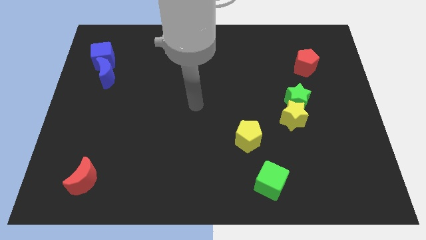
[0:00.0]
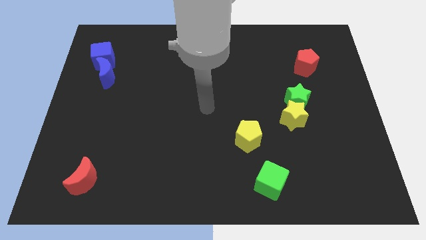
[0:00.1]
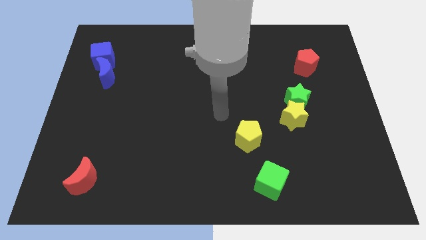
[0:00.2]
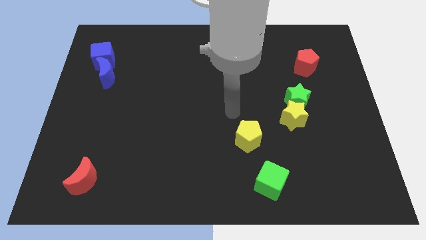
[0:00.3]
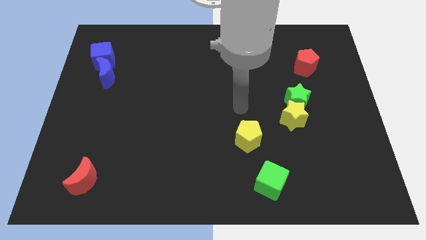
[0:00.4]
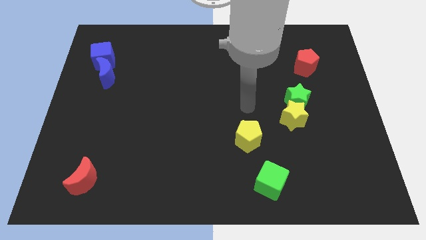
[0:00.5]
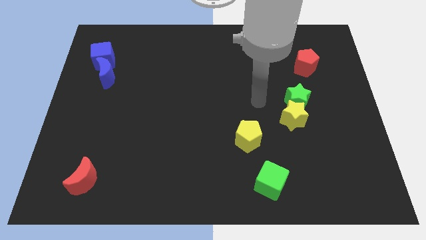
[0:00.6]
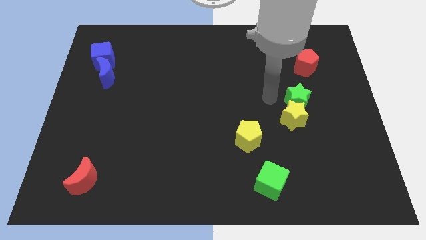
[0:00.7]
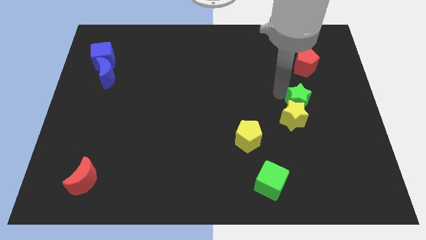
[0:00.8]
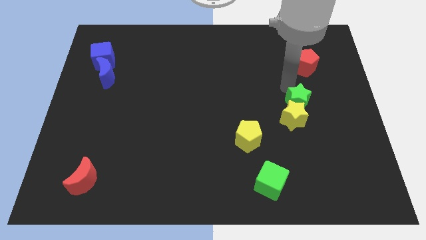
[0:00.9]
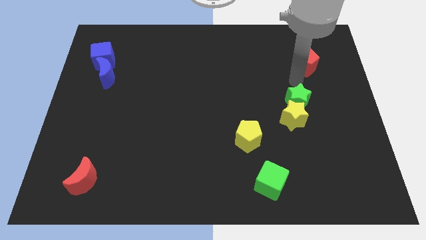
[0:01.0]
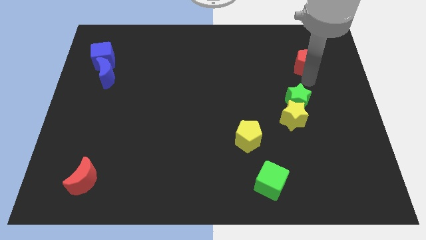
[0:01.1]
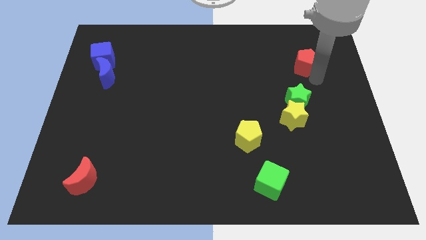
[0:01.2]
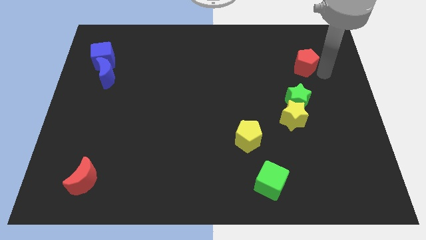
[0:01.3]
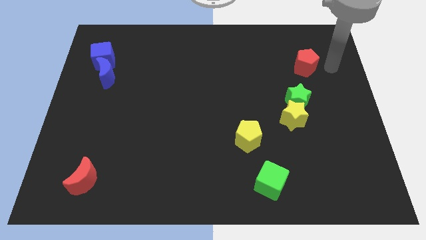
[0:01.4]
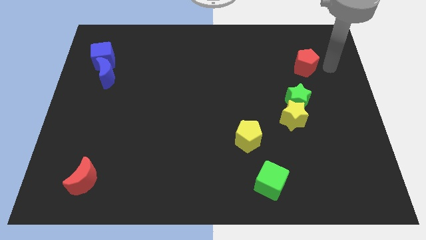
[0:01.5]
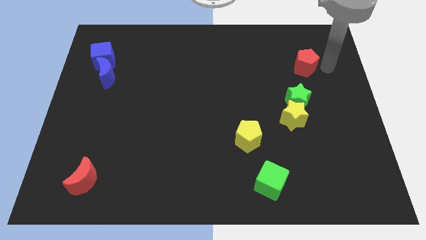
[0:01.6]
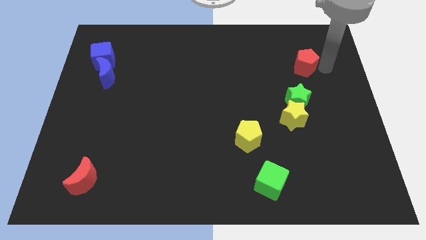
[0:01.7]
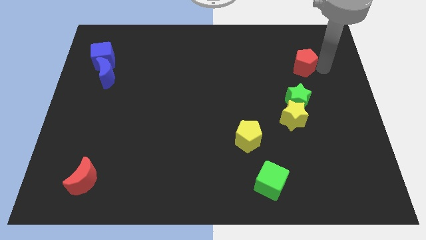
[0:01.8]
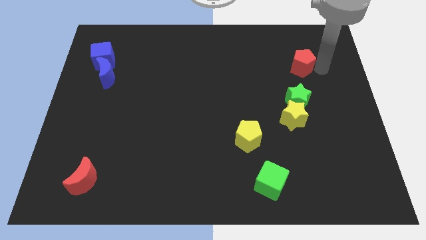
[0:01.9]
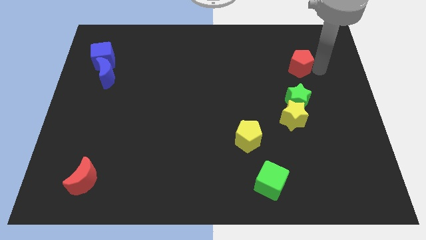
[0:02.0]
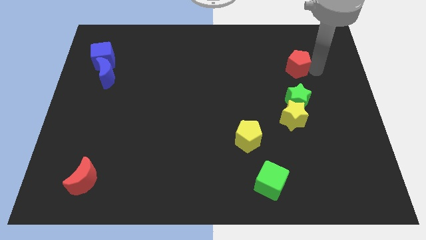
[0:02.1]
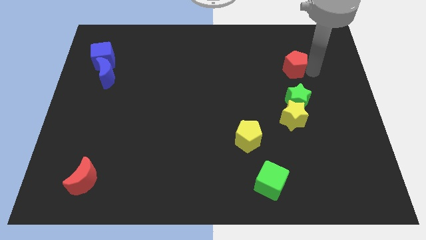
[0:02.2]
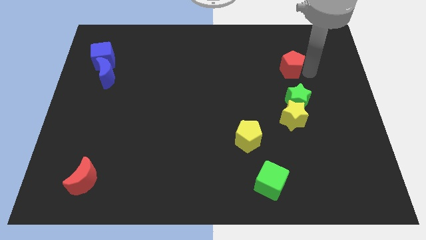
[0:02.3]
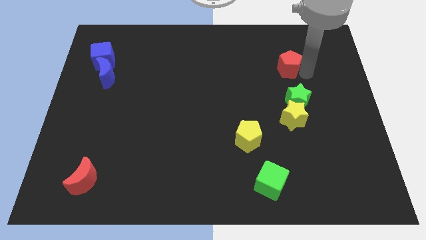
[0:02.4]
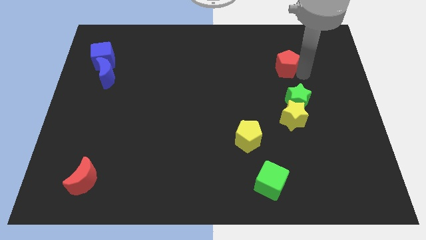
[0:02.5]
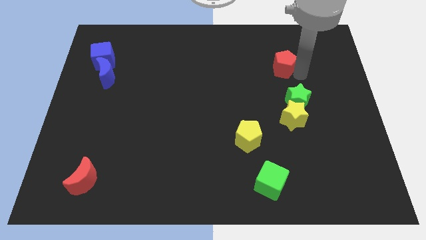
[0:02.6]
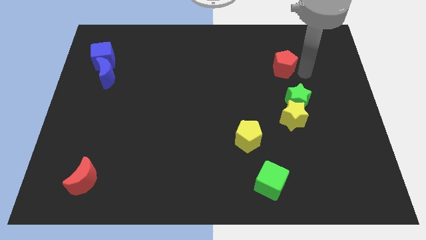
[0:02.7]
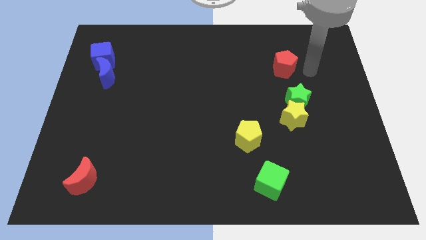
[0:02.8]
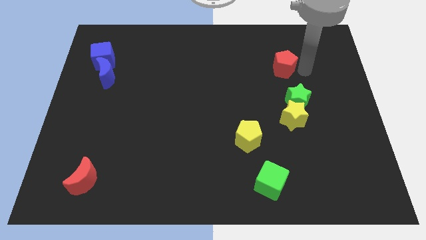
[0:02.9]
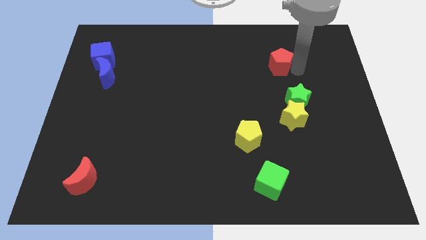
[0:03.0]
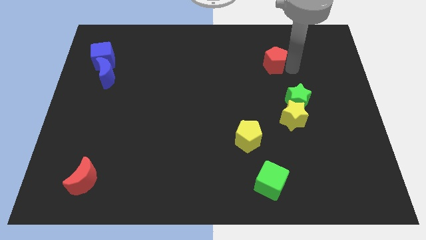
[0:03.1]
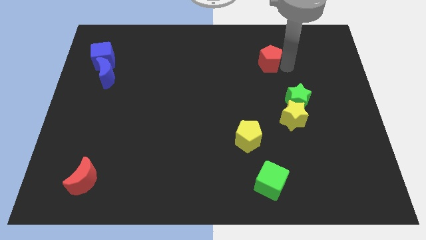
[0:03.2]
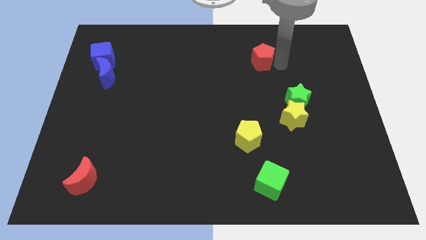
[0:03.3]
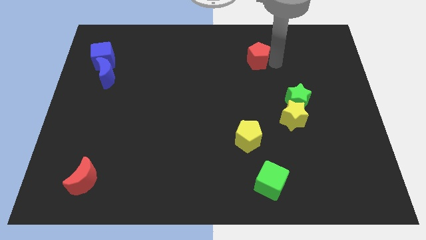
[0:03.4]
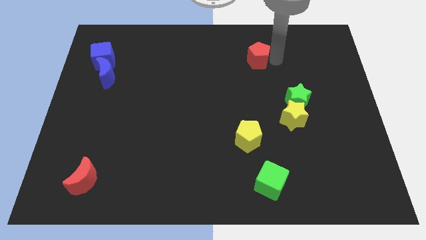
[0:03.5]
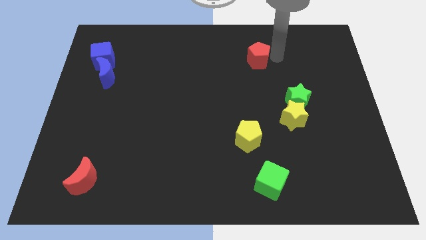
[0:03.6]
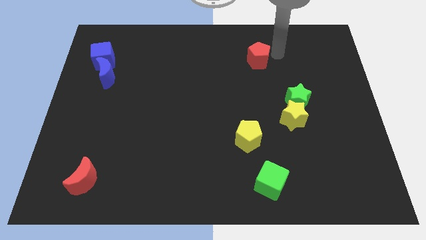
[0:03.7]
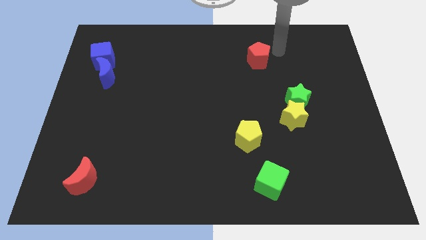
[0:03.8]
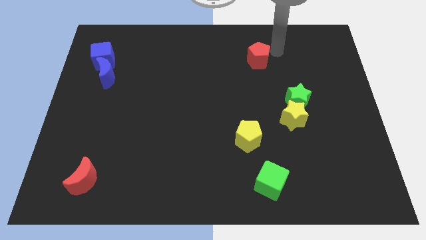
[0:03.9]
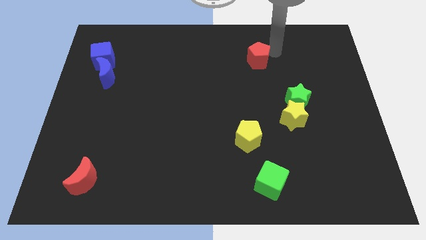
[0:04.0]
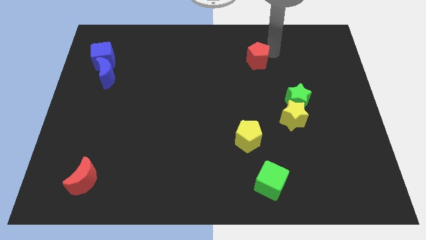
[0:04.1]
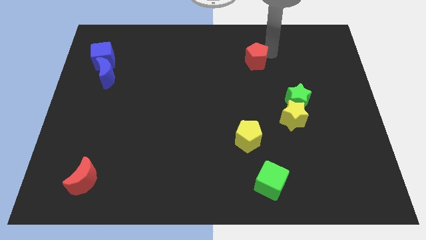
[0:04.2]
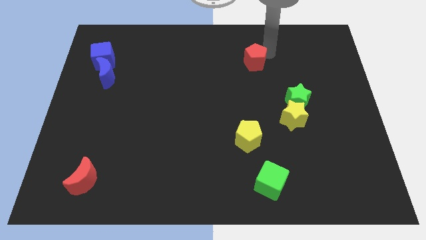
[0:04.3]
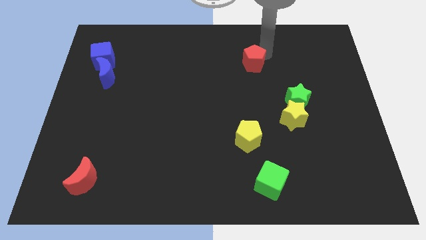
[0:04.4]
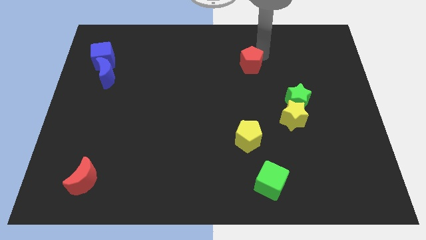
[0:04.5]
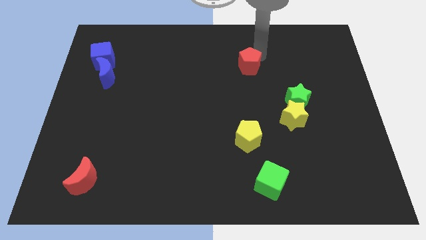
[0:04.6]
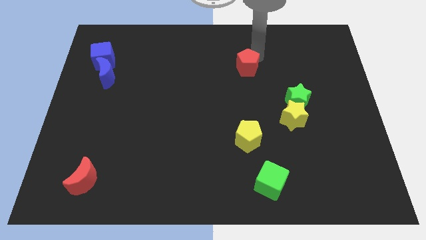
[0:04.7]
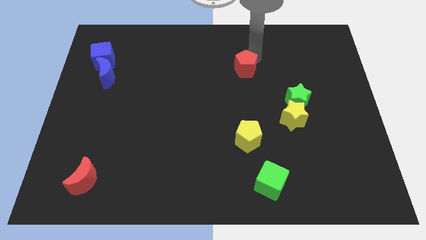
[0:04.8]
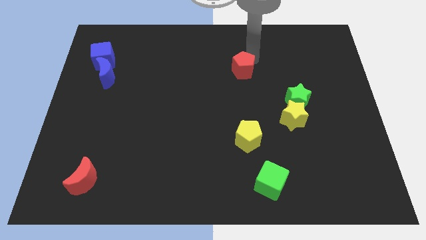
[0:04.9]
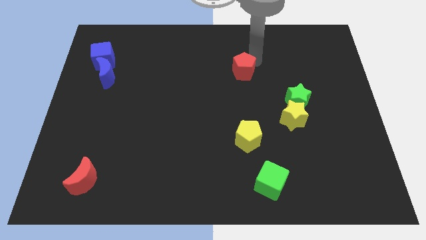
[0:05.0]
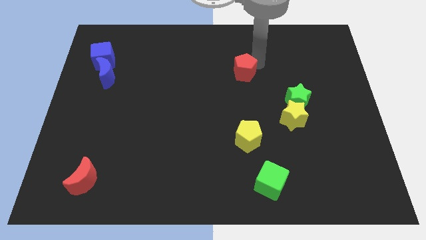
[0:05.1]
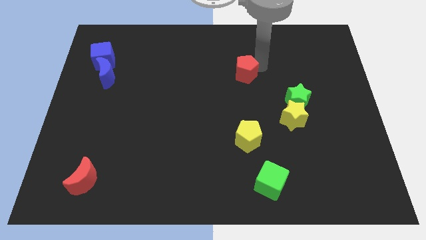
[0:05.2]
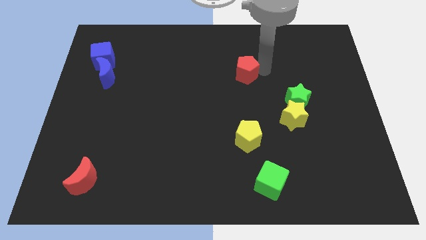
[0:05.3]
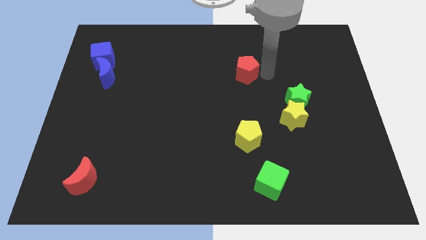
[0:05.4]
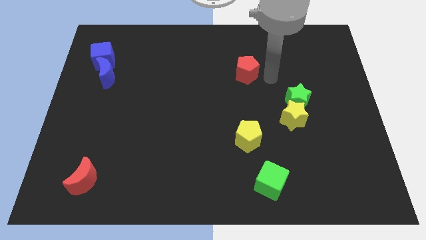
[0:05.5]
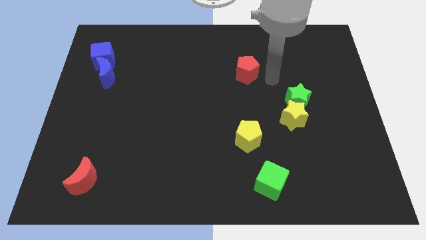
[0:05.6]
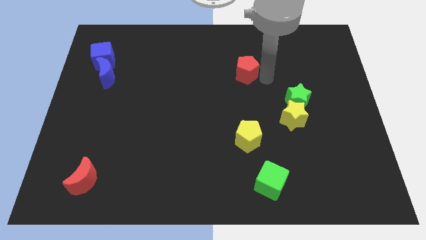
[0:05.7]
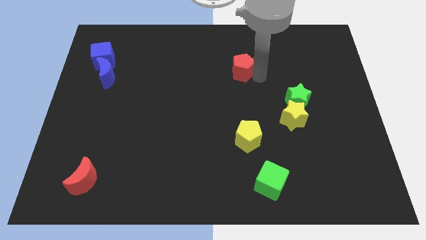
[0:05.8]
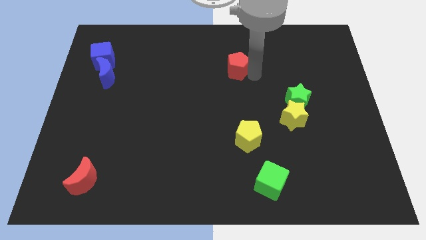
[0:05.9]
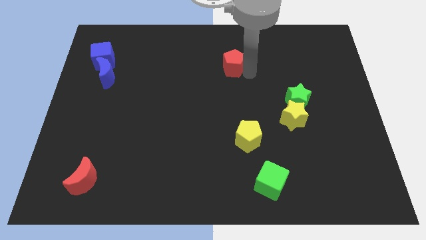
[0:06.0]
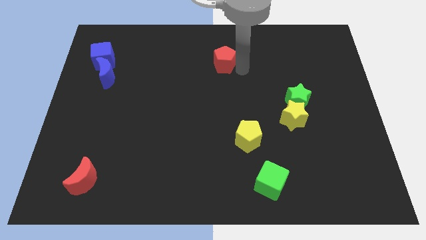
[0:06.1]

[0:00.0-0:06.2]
slide the red pentagon to the left

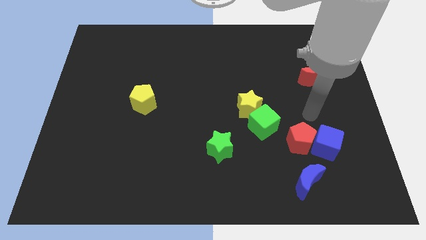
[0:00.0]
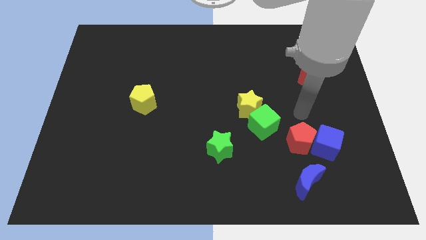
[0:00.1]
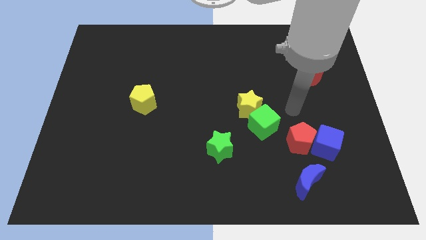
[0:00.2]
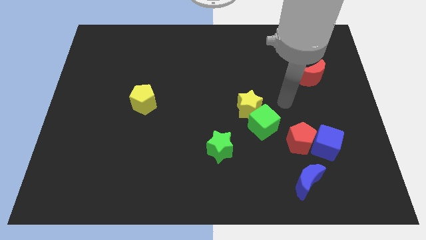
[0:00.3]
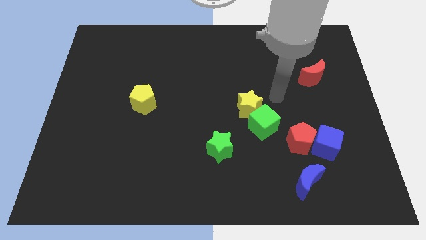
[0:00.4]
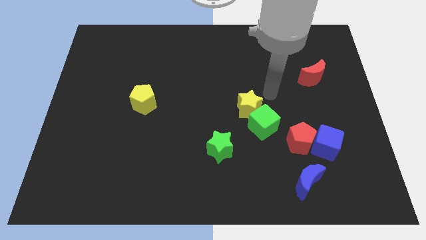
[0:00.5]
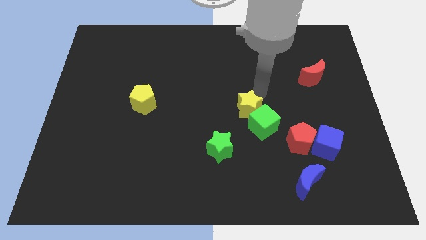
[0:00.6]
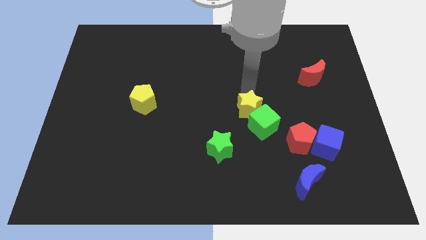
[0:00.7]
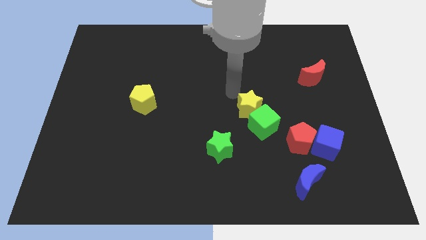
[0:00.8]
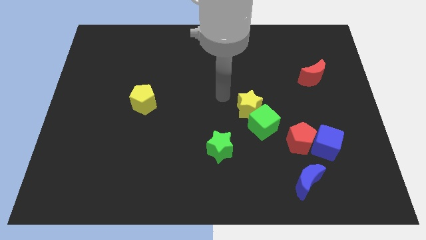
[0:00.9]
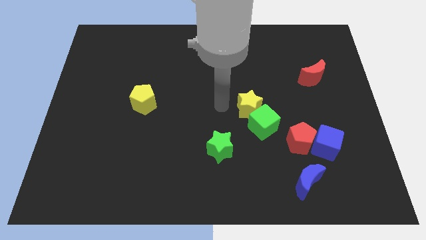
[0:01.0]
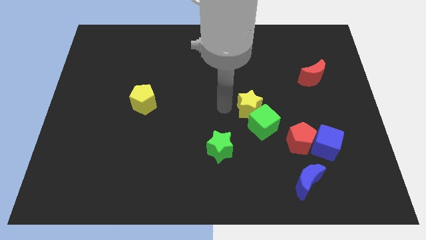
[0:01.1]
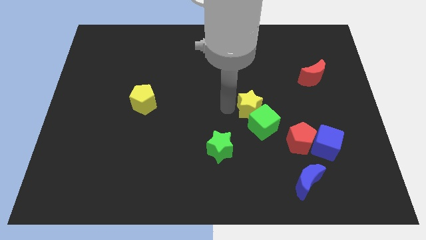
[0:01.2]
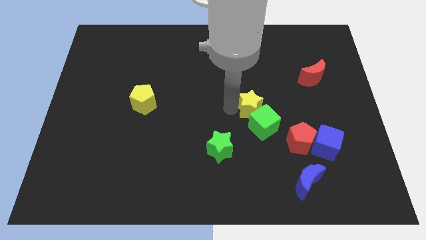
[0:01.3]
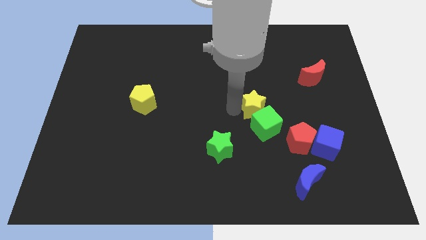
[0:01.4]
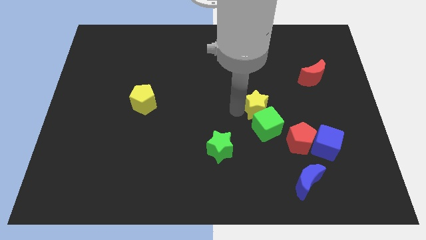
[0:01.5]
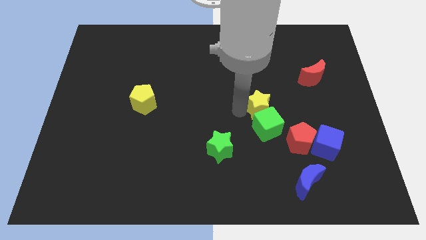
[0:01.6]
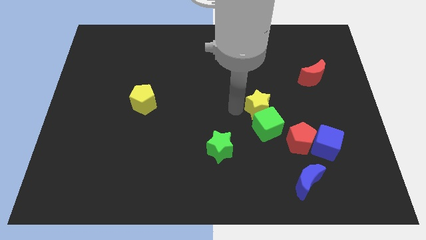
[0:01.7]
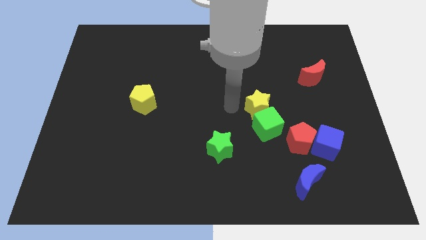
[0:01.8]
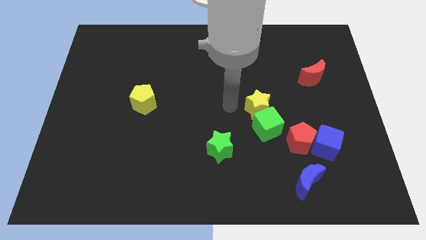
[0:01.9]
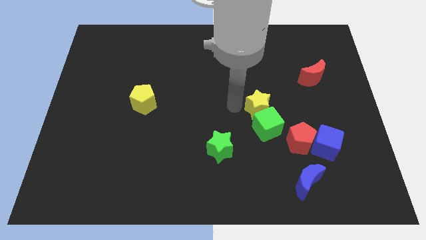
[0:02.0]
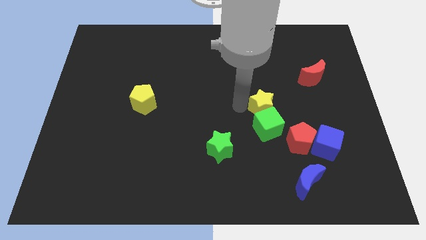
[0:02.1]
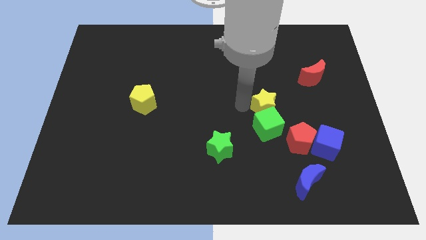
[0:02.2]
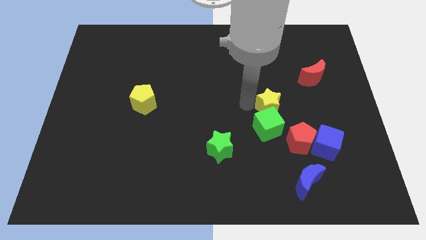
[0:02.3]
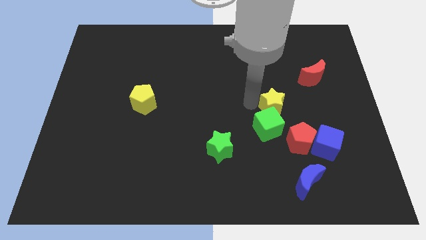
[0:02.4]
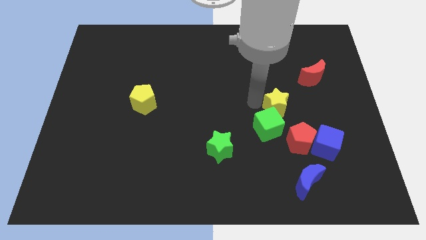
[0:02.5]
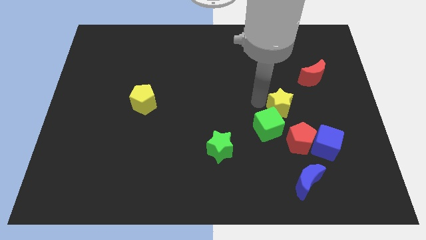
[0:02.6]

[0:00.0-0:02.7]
move the yellow star a bit right
